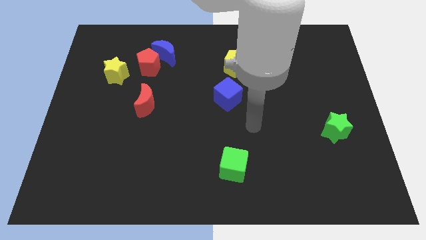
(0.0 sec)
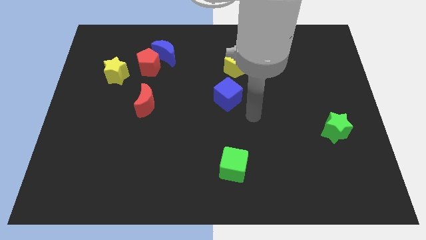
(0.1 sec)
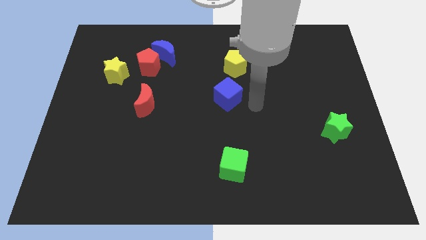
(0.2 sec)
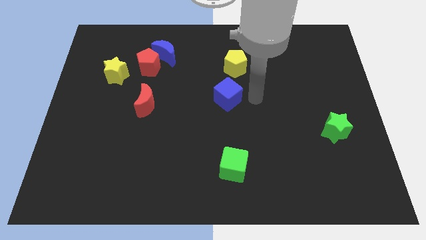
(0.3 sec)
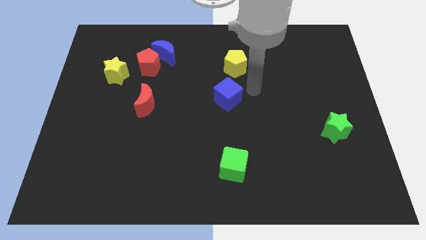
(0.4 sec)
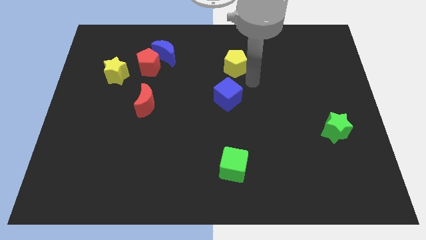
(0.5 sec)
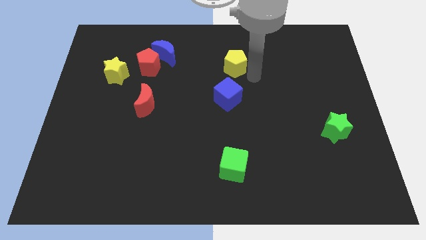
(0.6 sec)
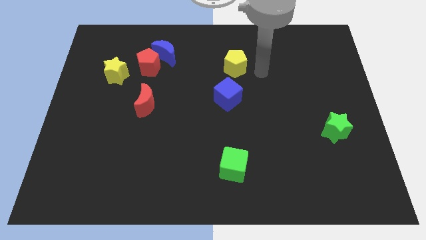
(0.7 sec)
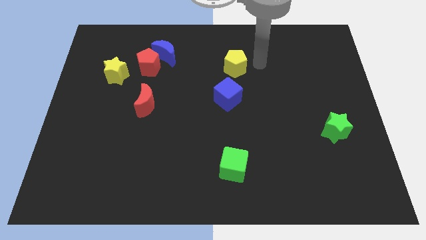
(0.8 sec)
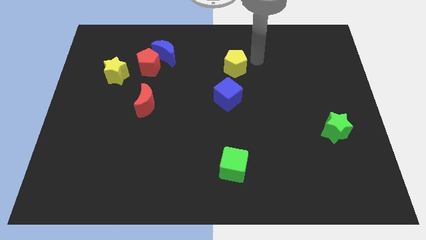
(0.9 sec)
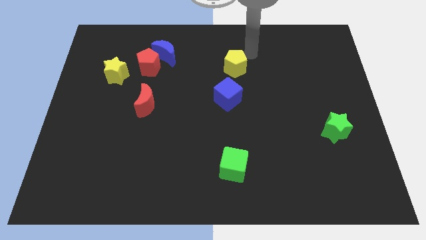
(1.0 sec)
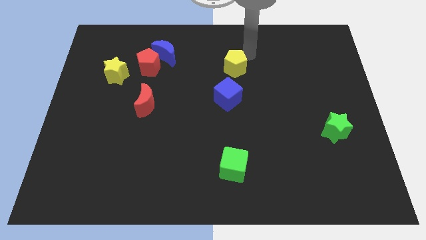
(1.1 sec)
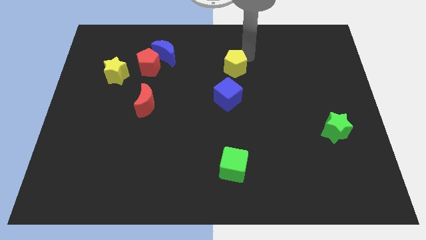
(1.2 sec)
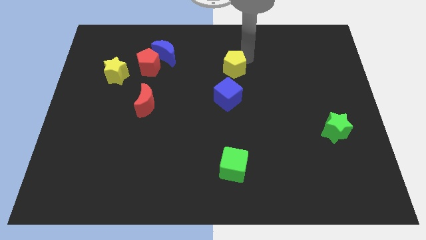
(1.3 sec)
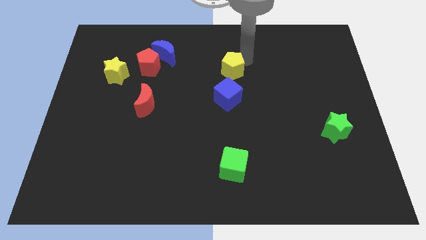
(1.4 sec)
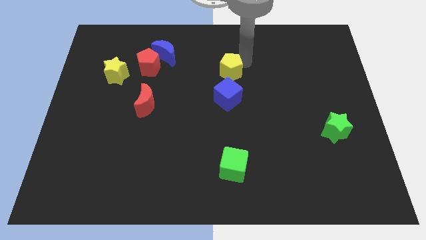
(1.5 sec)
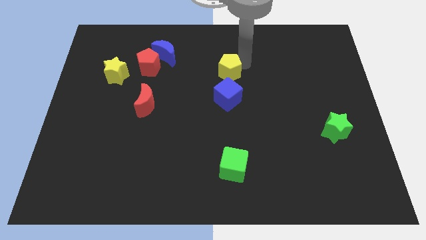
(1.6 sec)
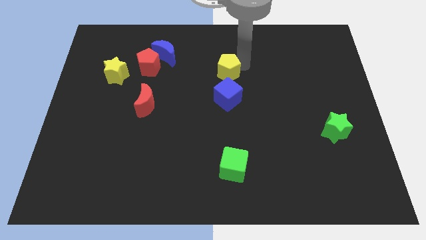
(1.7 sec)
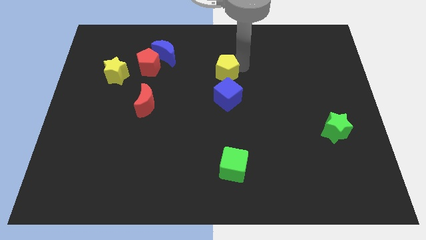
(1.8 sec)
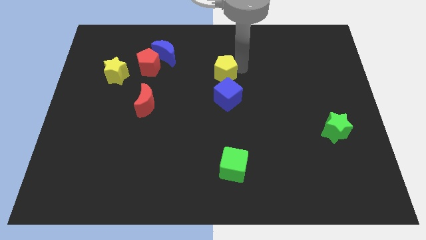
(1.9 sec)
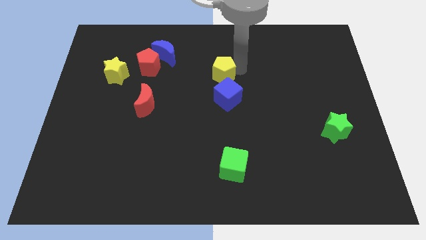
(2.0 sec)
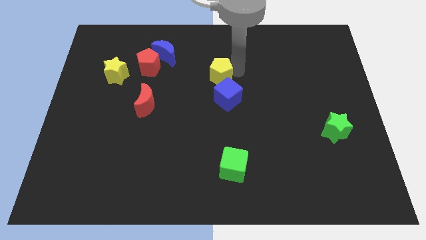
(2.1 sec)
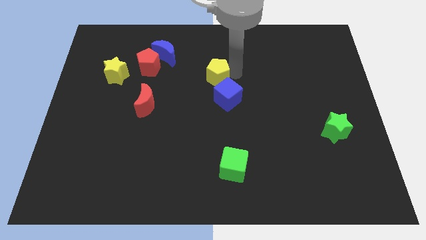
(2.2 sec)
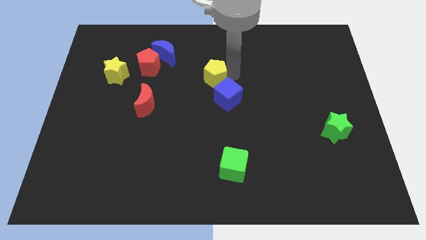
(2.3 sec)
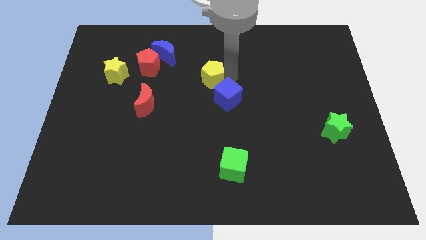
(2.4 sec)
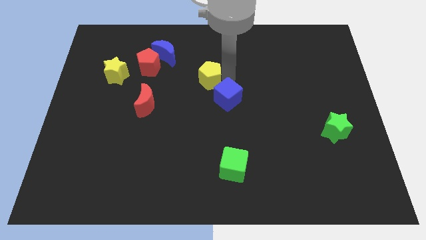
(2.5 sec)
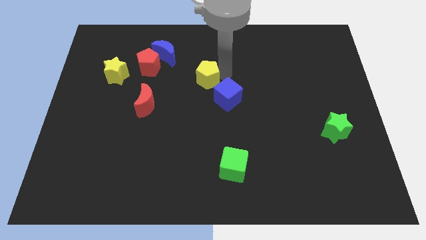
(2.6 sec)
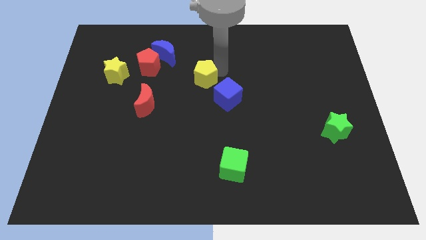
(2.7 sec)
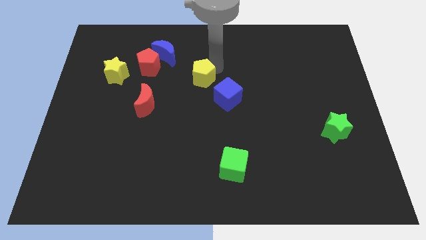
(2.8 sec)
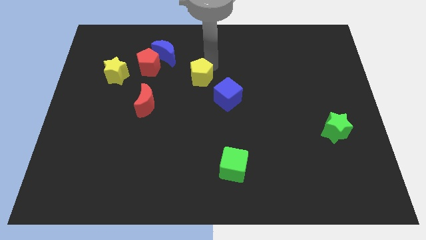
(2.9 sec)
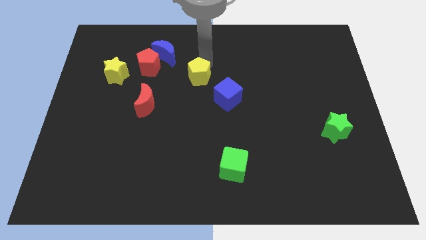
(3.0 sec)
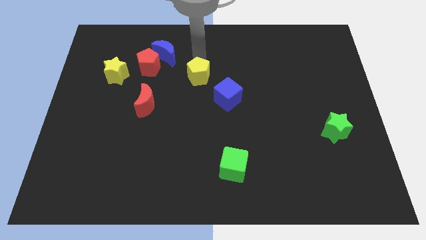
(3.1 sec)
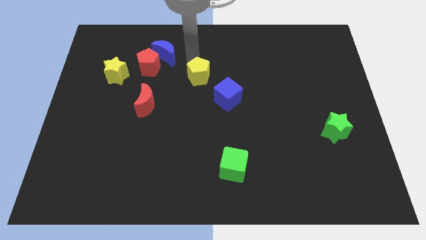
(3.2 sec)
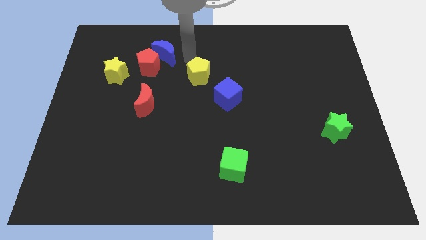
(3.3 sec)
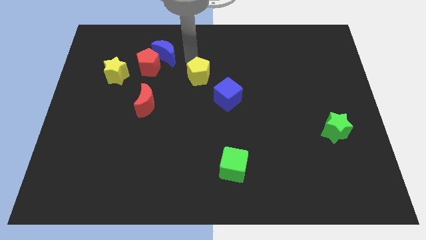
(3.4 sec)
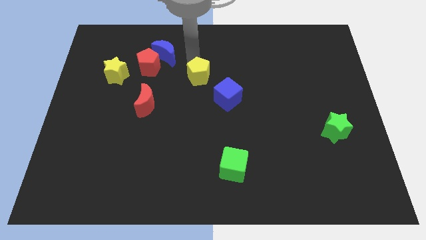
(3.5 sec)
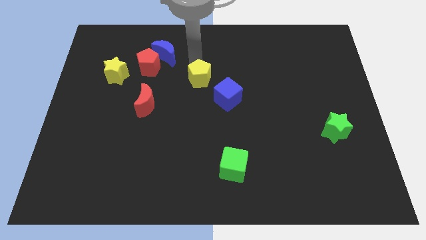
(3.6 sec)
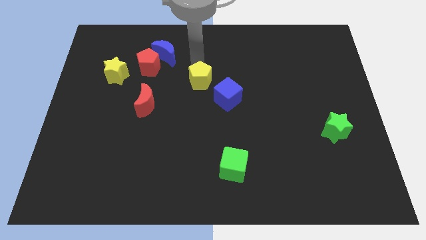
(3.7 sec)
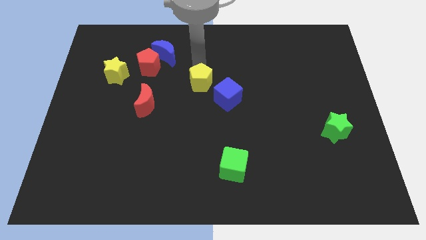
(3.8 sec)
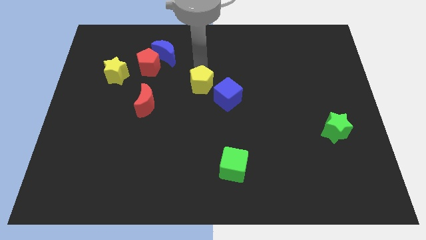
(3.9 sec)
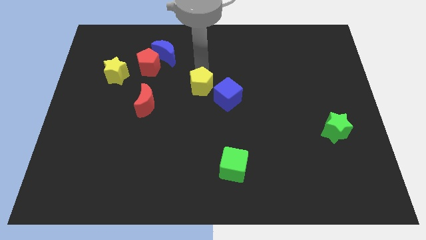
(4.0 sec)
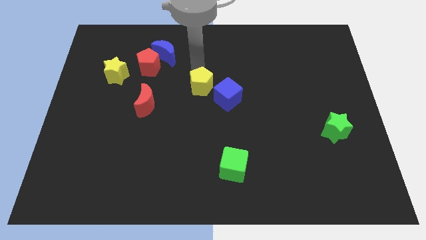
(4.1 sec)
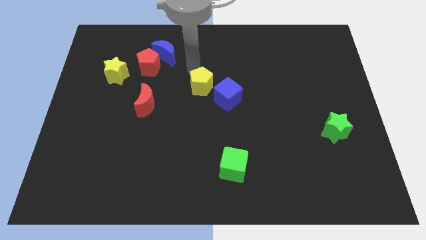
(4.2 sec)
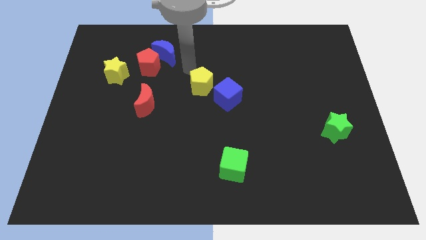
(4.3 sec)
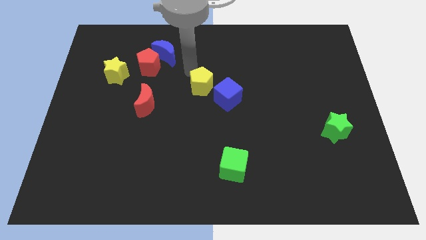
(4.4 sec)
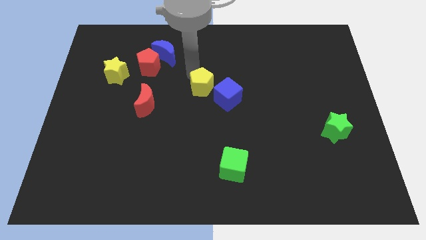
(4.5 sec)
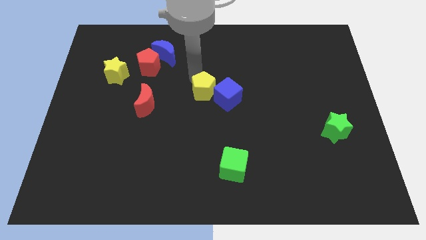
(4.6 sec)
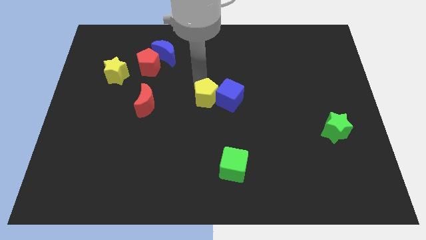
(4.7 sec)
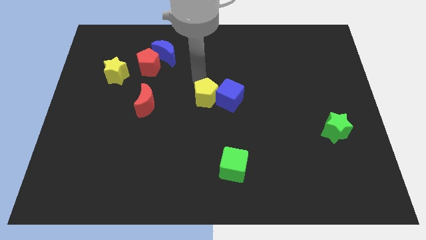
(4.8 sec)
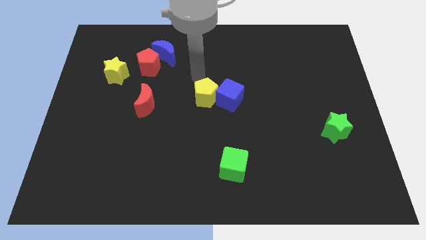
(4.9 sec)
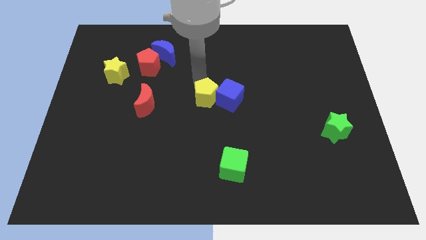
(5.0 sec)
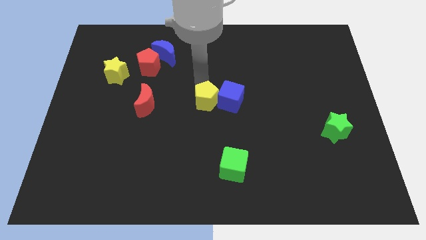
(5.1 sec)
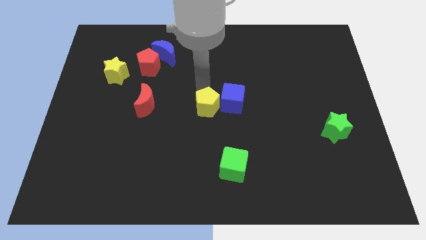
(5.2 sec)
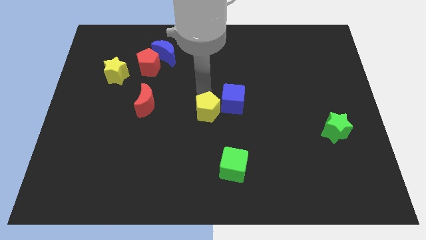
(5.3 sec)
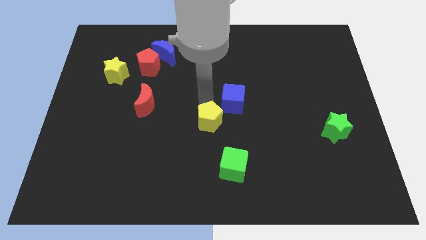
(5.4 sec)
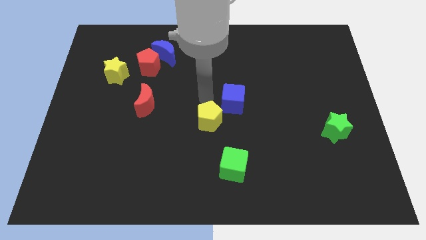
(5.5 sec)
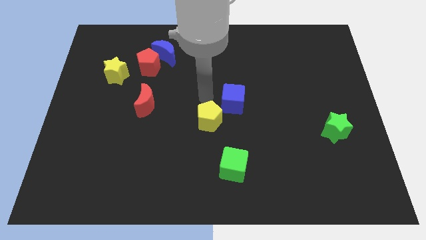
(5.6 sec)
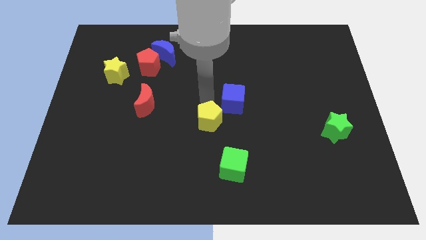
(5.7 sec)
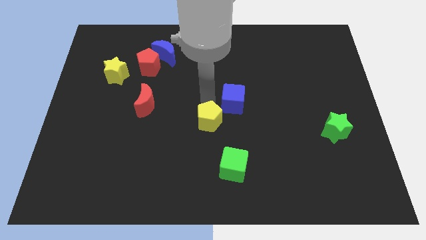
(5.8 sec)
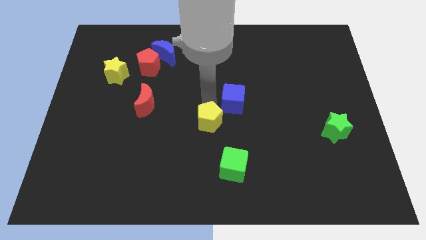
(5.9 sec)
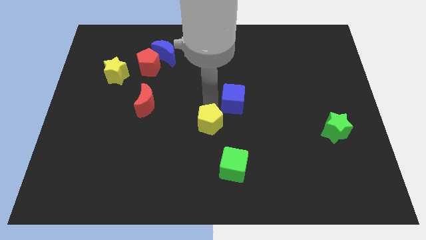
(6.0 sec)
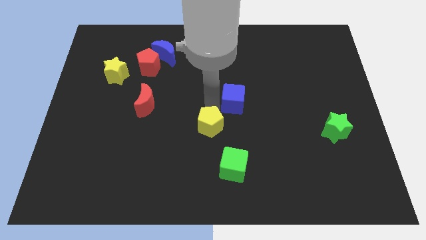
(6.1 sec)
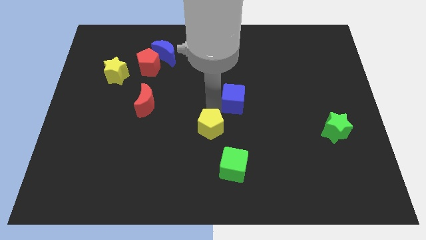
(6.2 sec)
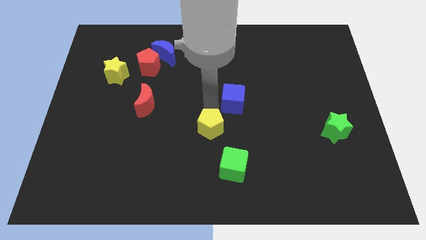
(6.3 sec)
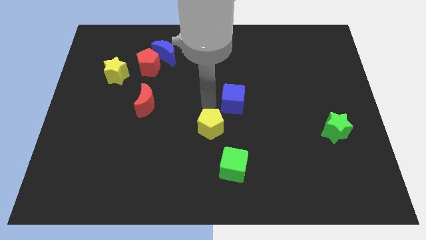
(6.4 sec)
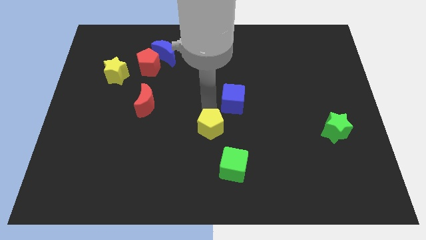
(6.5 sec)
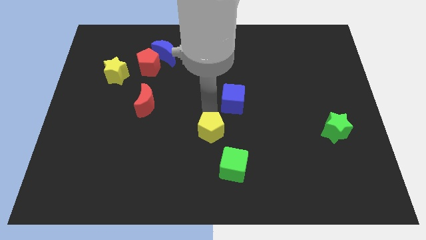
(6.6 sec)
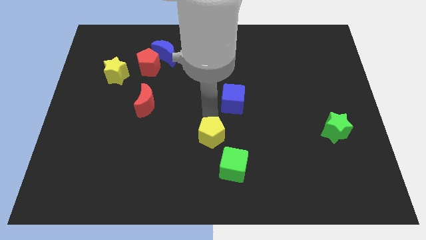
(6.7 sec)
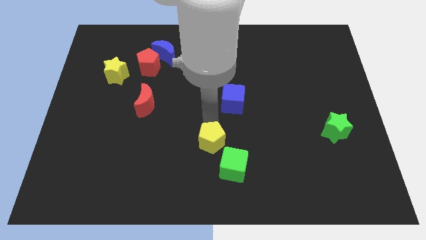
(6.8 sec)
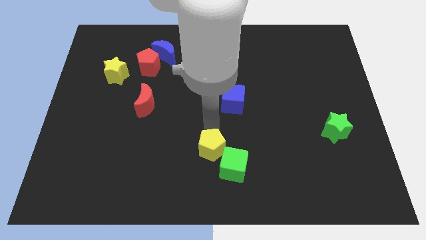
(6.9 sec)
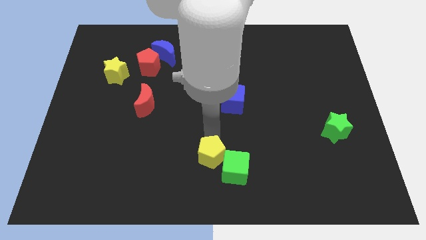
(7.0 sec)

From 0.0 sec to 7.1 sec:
move the yellow pentagon to the bottom side

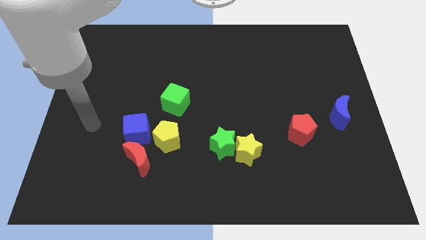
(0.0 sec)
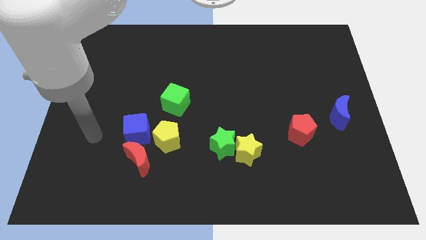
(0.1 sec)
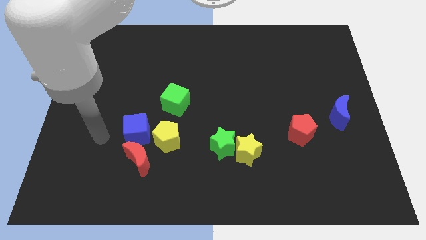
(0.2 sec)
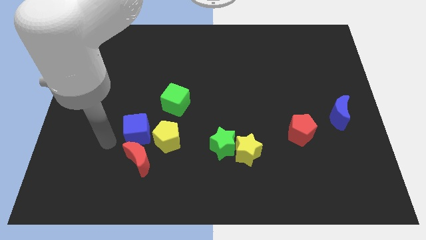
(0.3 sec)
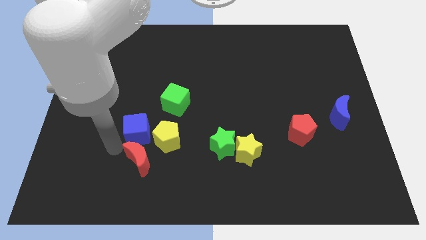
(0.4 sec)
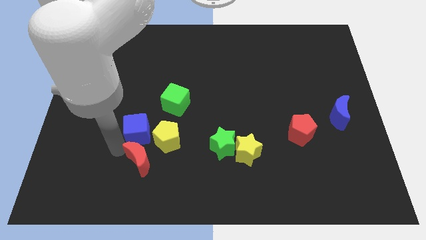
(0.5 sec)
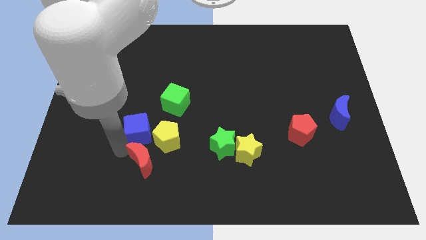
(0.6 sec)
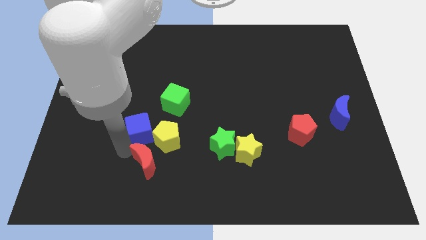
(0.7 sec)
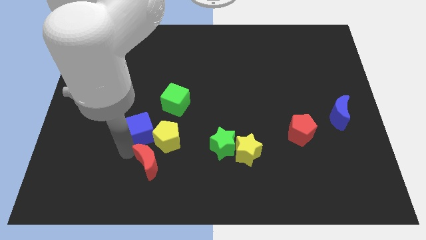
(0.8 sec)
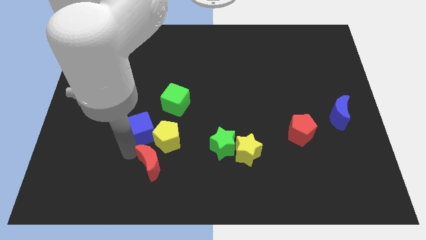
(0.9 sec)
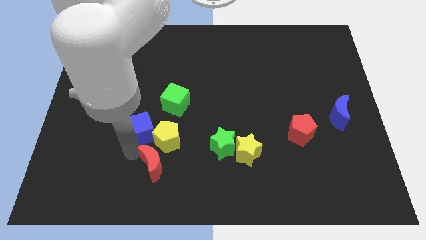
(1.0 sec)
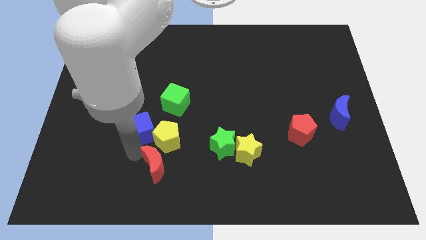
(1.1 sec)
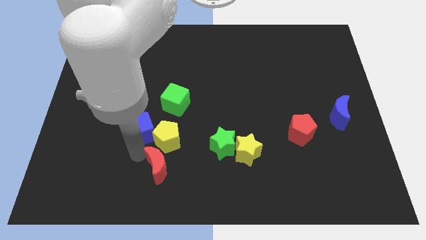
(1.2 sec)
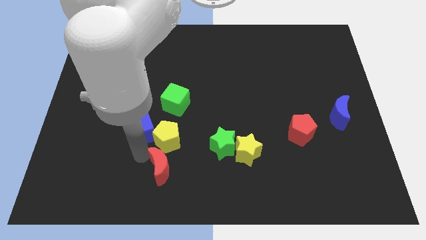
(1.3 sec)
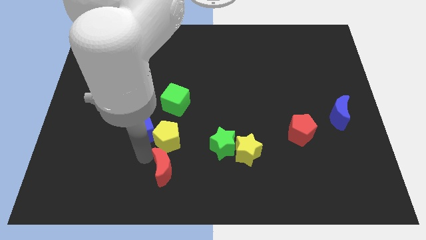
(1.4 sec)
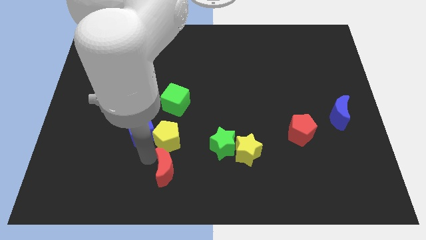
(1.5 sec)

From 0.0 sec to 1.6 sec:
put the red moon to the bottom
